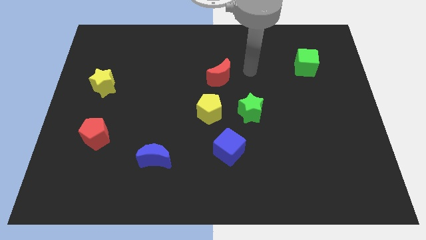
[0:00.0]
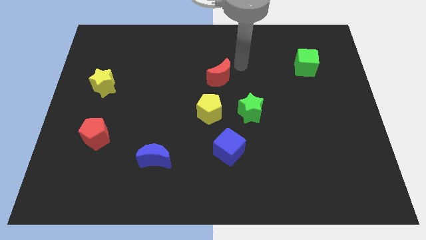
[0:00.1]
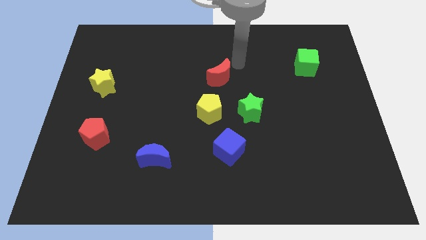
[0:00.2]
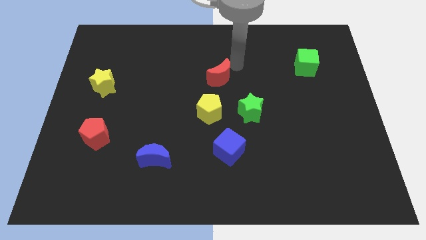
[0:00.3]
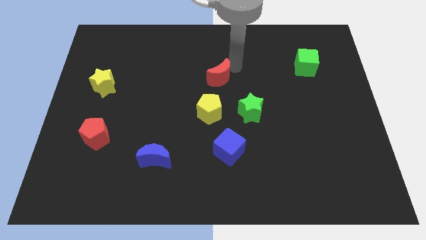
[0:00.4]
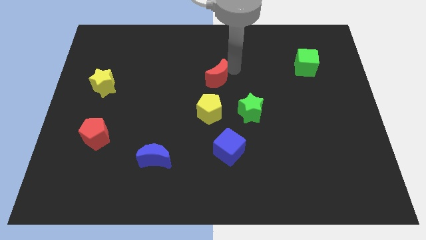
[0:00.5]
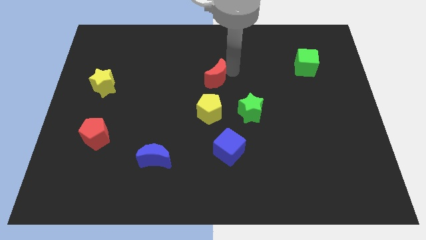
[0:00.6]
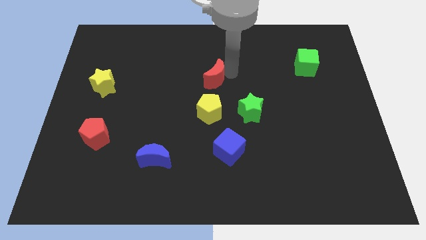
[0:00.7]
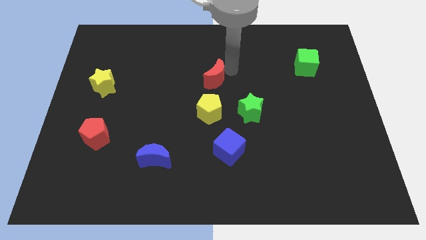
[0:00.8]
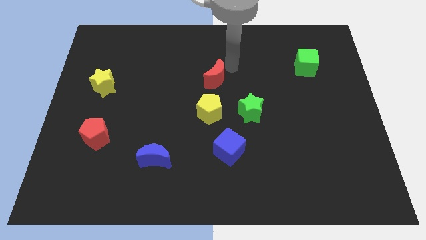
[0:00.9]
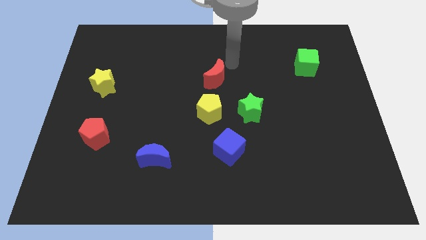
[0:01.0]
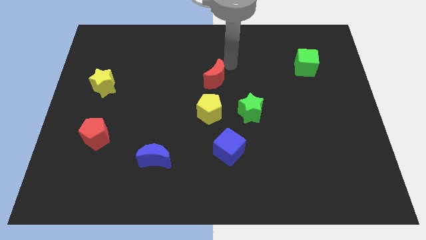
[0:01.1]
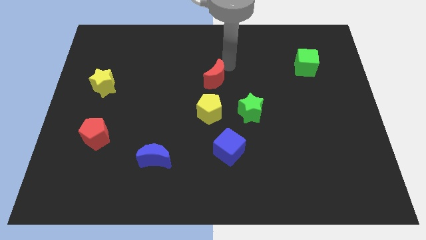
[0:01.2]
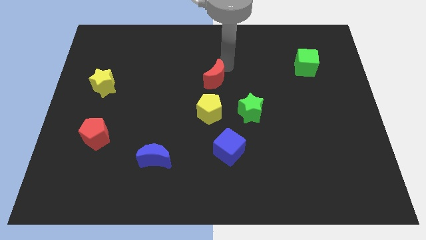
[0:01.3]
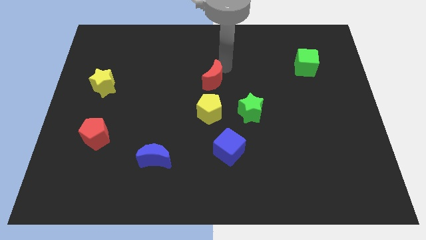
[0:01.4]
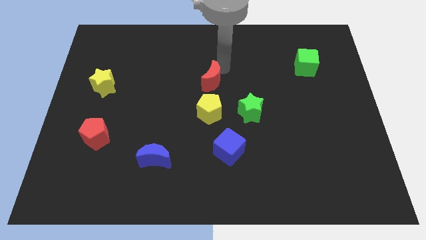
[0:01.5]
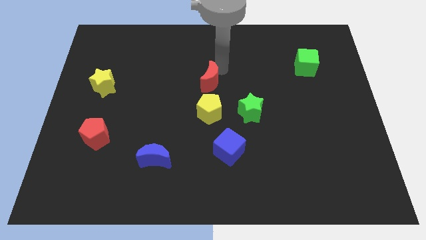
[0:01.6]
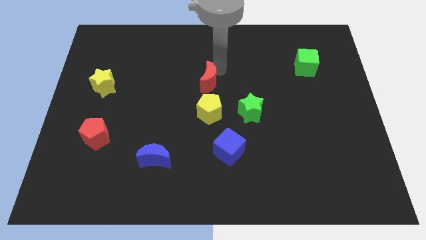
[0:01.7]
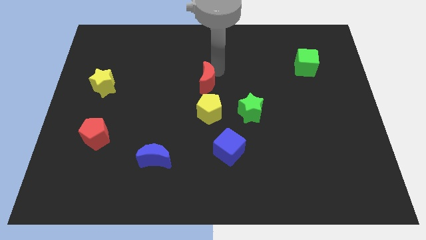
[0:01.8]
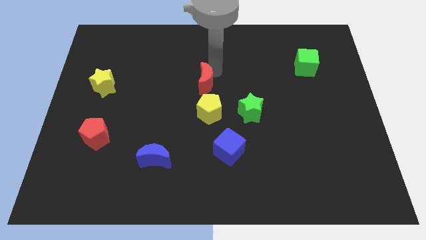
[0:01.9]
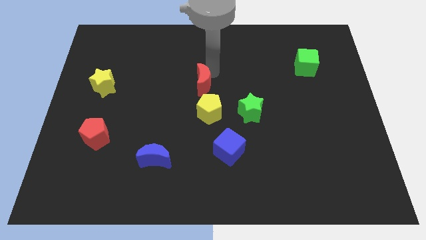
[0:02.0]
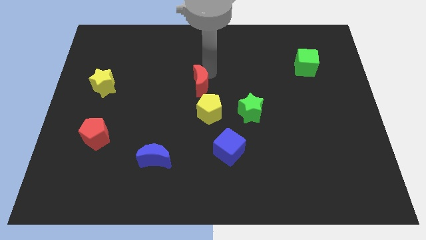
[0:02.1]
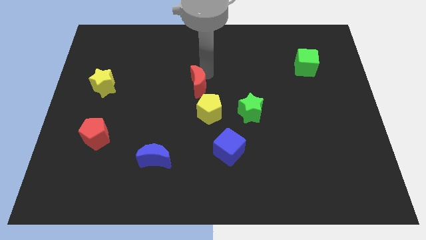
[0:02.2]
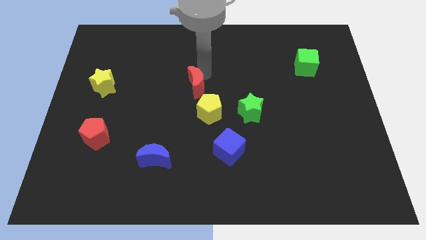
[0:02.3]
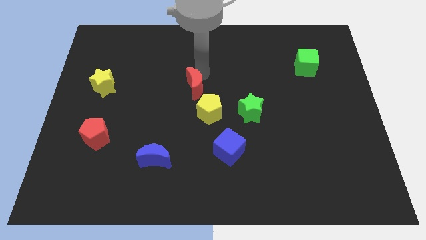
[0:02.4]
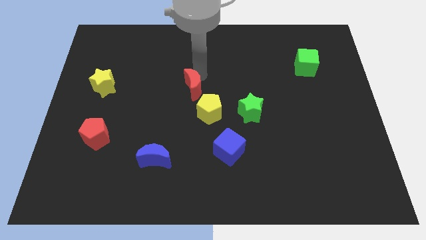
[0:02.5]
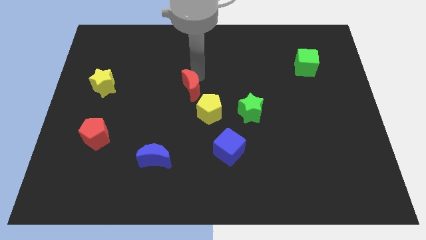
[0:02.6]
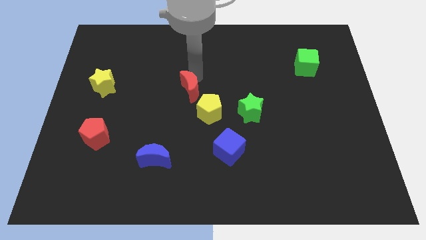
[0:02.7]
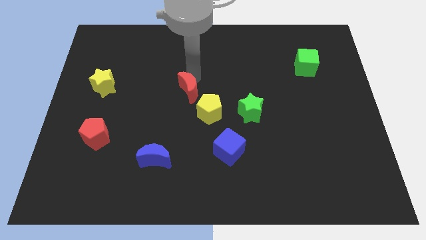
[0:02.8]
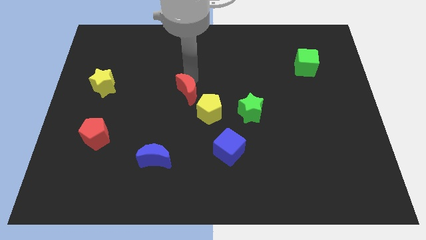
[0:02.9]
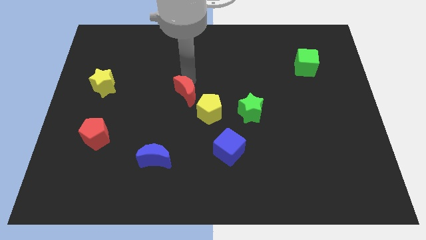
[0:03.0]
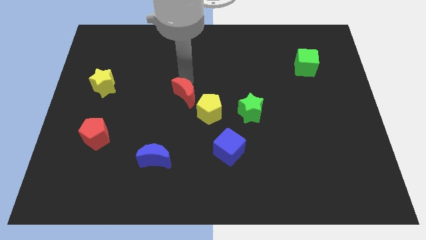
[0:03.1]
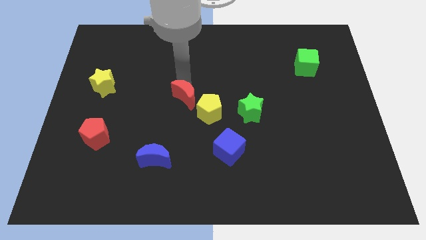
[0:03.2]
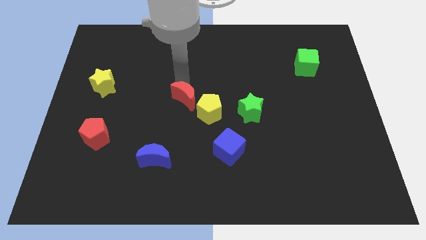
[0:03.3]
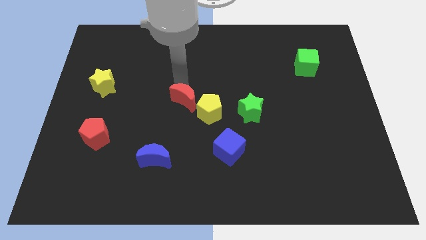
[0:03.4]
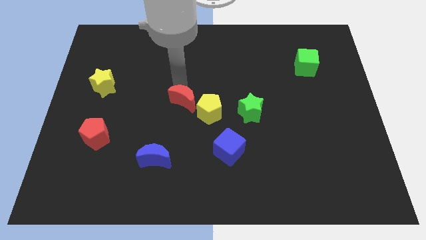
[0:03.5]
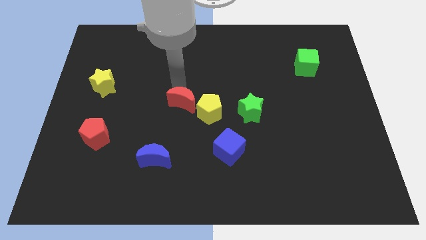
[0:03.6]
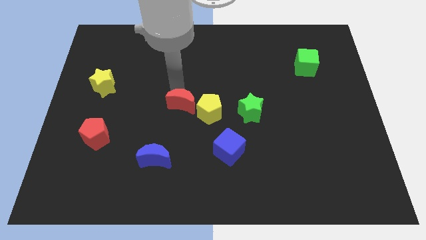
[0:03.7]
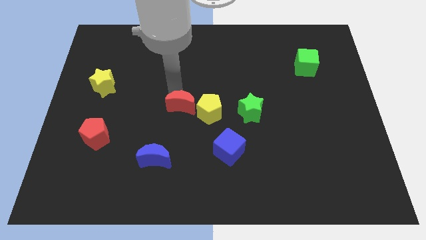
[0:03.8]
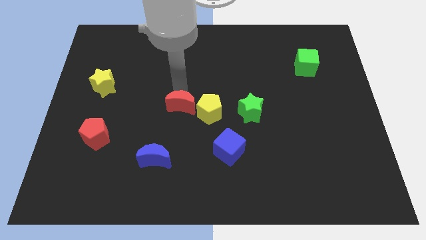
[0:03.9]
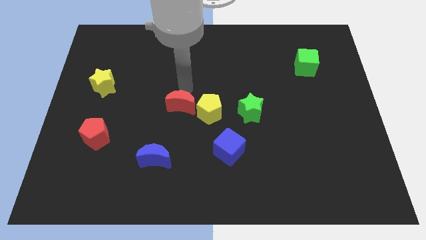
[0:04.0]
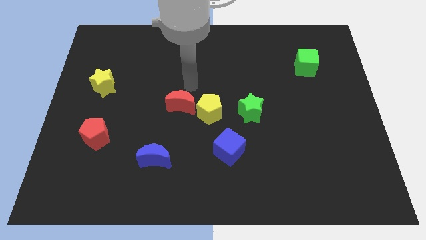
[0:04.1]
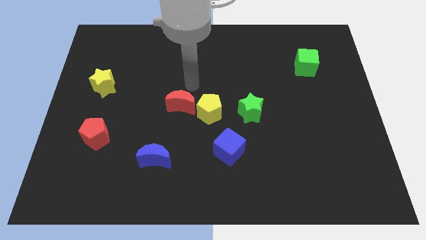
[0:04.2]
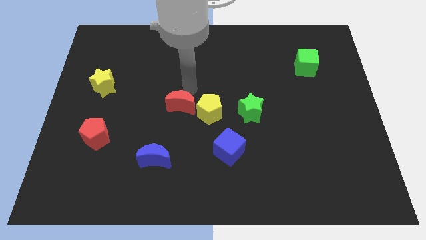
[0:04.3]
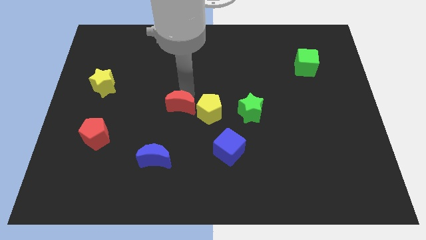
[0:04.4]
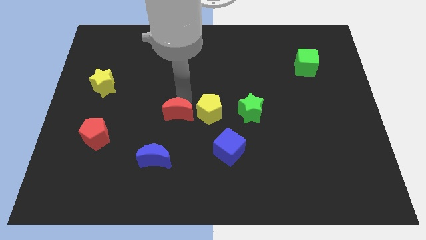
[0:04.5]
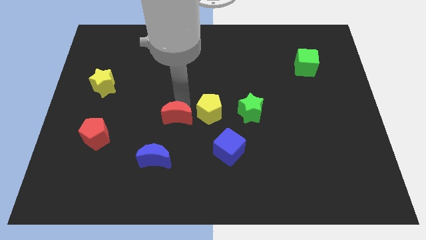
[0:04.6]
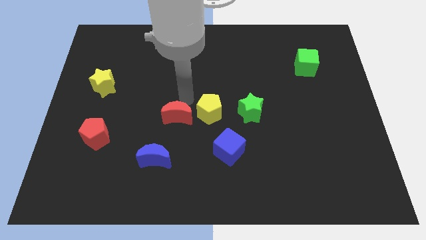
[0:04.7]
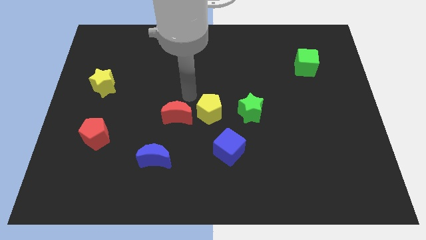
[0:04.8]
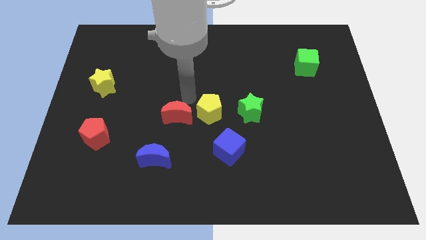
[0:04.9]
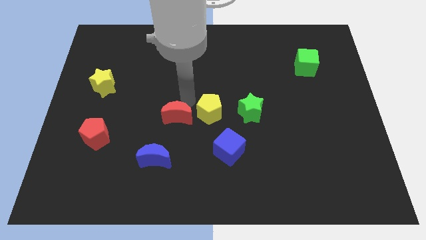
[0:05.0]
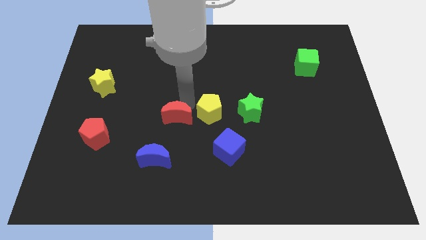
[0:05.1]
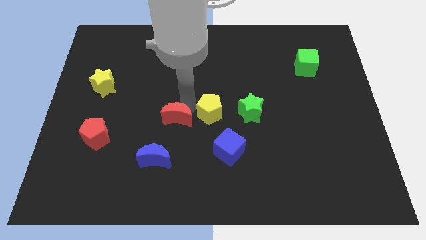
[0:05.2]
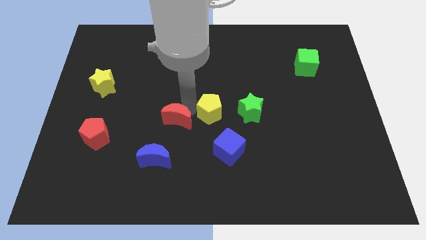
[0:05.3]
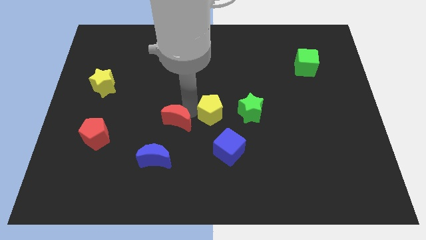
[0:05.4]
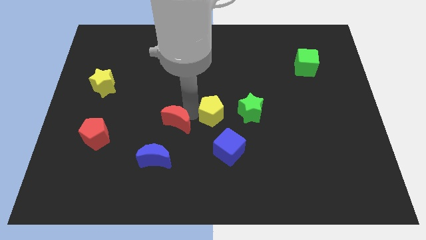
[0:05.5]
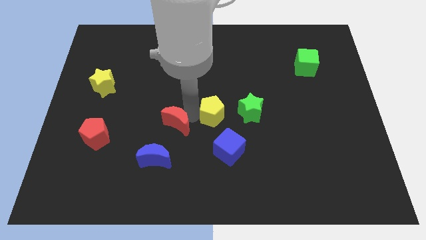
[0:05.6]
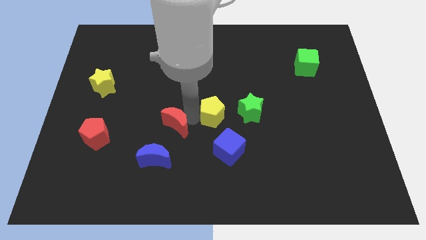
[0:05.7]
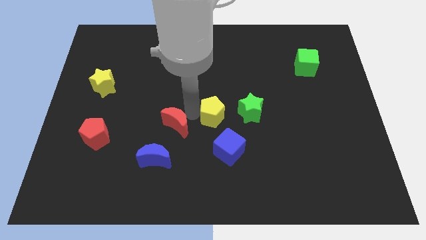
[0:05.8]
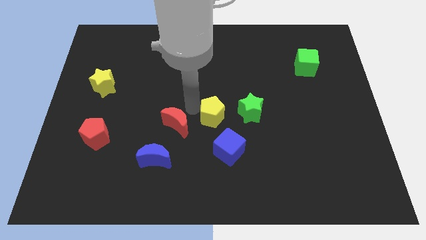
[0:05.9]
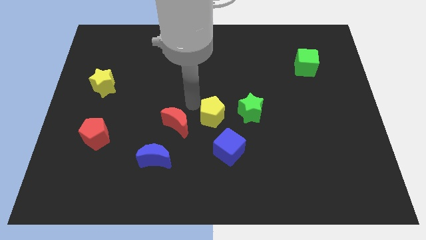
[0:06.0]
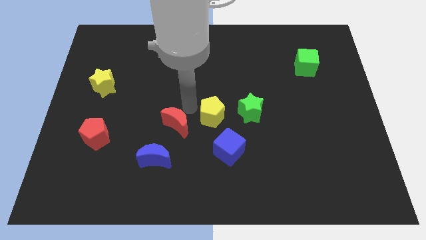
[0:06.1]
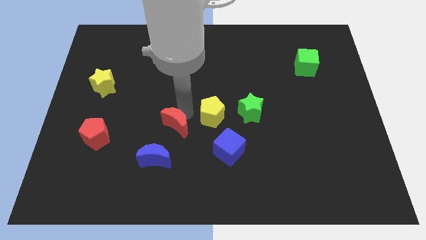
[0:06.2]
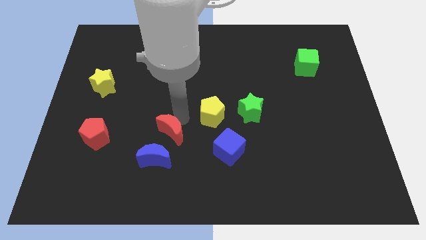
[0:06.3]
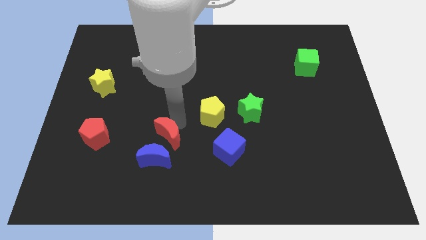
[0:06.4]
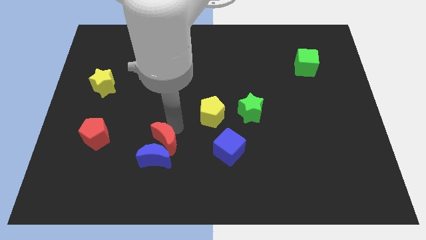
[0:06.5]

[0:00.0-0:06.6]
move the red moon close to the blue moon

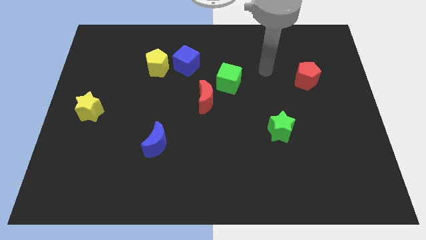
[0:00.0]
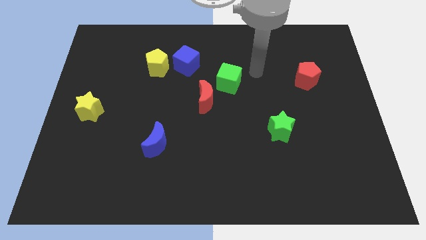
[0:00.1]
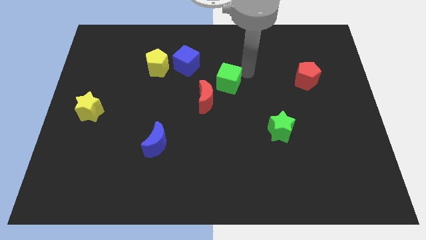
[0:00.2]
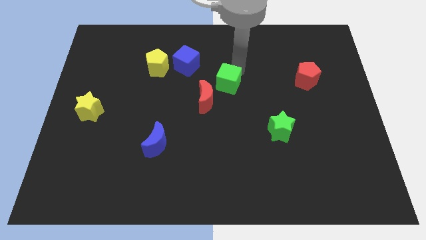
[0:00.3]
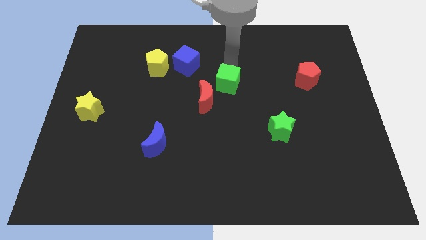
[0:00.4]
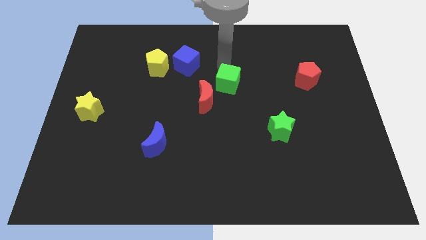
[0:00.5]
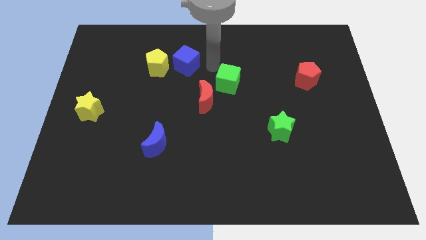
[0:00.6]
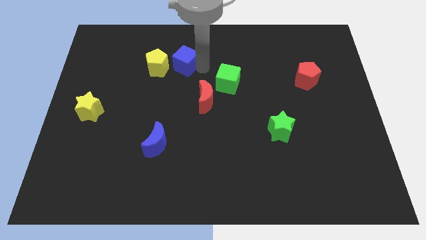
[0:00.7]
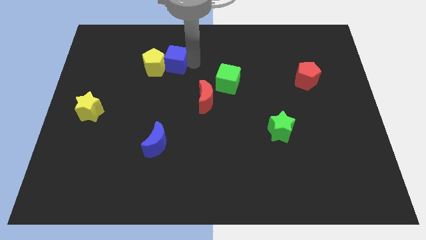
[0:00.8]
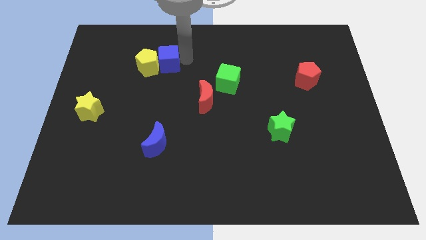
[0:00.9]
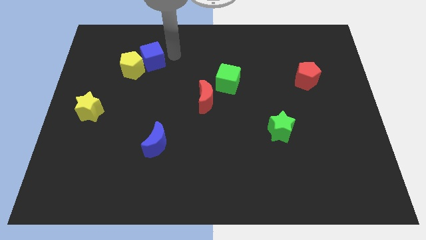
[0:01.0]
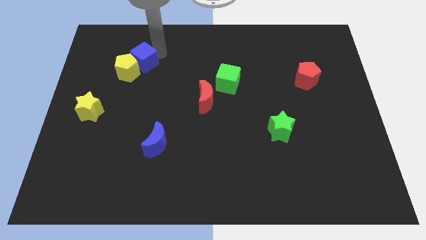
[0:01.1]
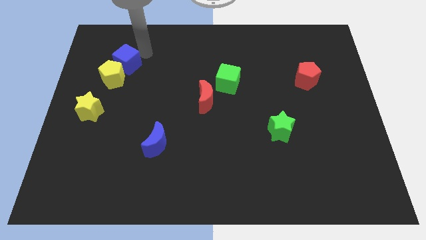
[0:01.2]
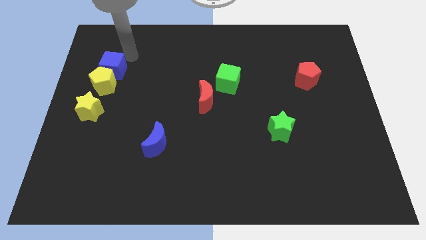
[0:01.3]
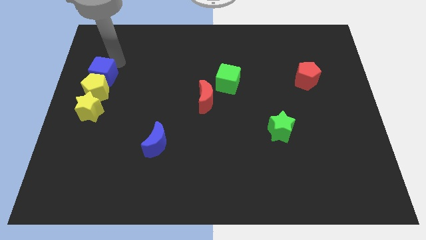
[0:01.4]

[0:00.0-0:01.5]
move the yellow pentagon next to the yellow star
